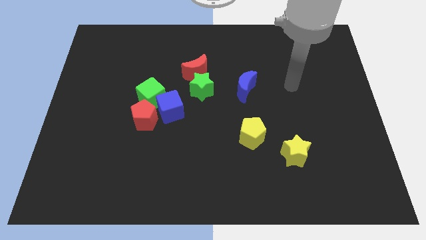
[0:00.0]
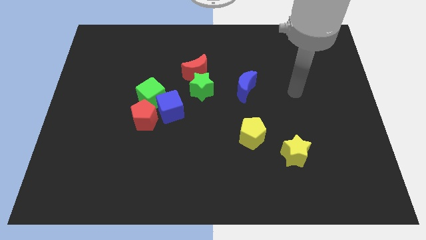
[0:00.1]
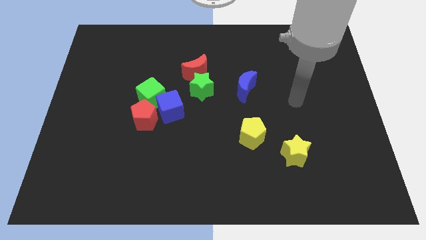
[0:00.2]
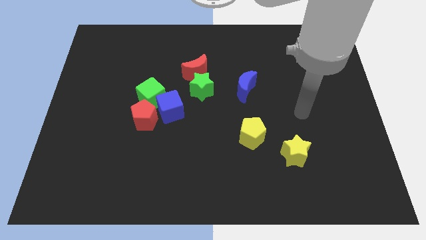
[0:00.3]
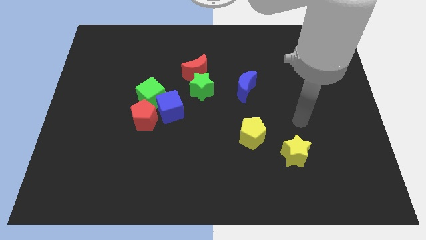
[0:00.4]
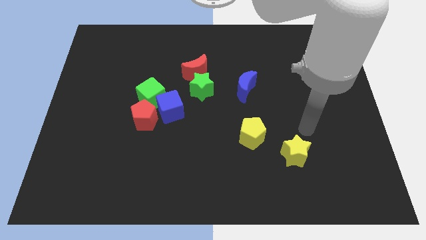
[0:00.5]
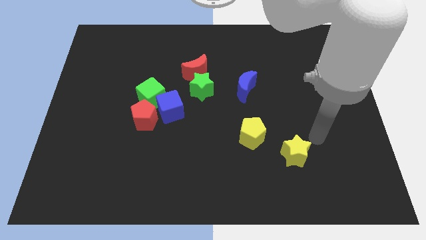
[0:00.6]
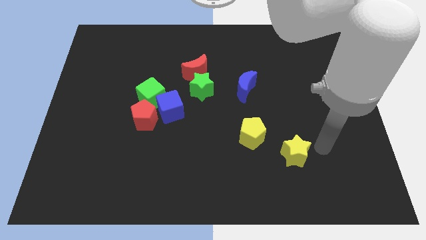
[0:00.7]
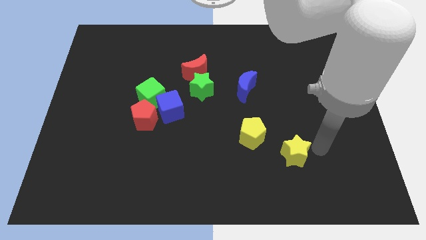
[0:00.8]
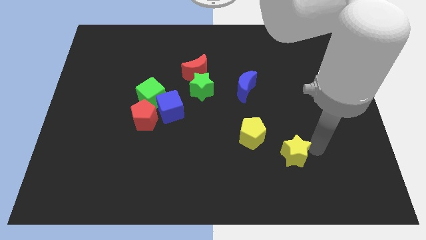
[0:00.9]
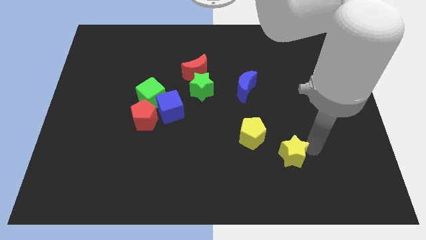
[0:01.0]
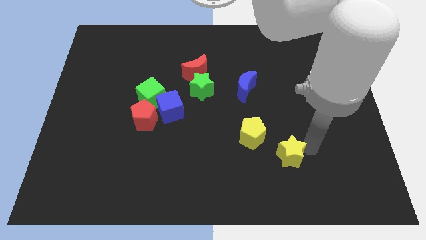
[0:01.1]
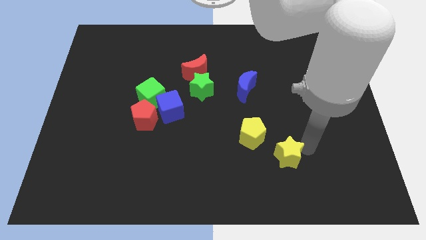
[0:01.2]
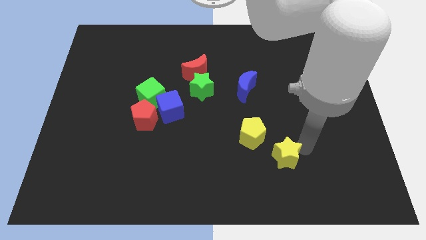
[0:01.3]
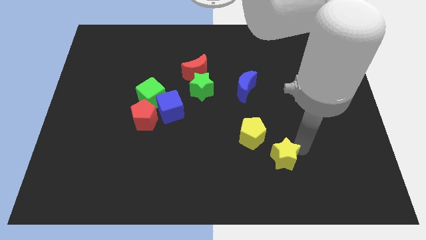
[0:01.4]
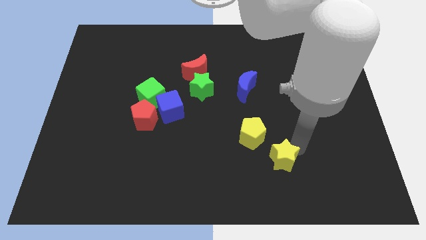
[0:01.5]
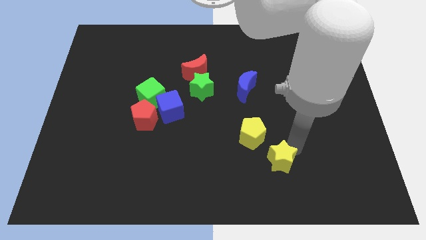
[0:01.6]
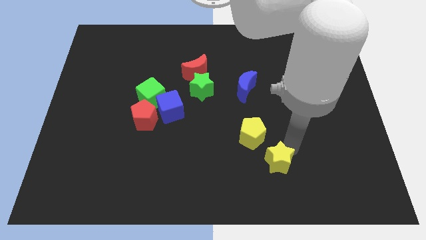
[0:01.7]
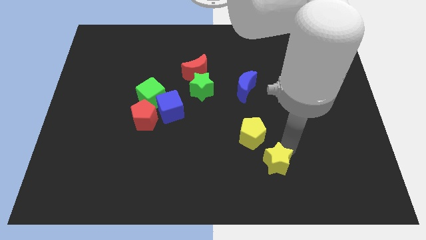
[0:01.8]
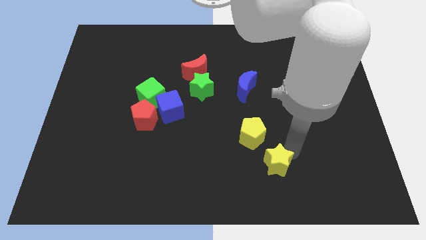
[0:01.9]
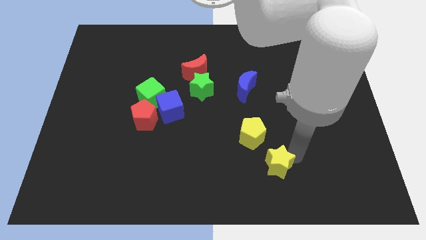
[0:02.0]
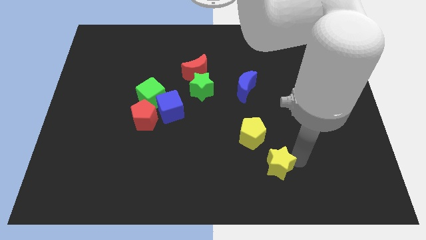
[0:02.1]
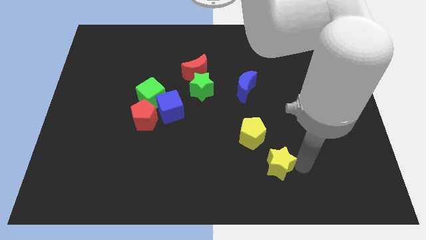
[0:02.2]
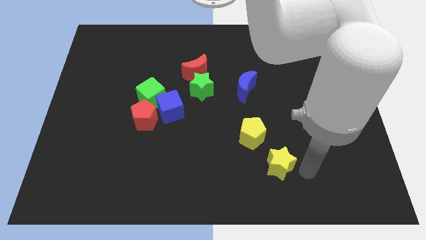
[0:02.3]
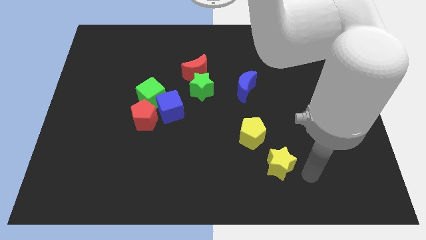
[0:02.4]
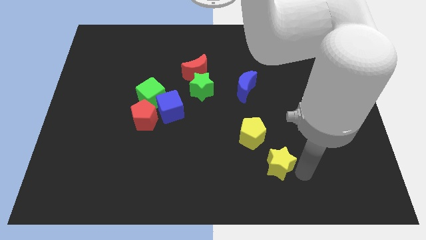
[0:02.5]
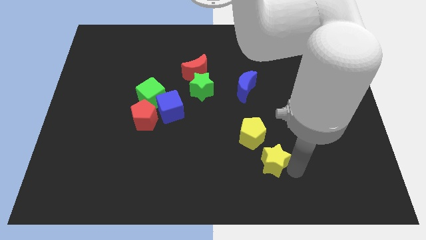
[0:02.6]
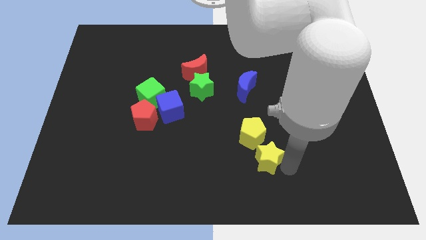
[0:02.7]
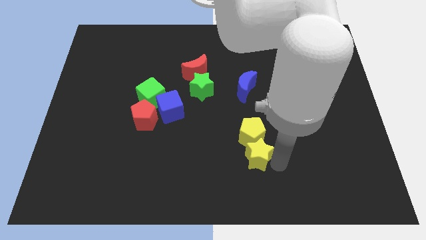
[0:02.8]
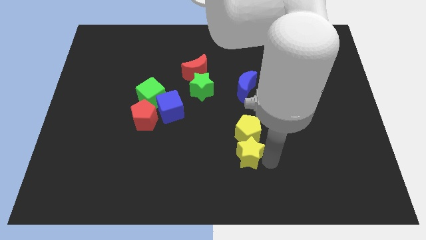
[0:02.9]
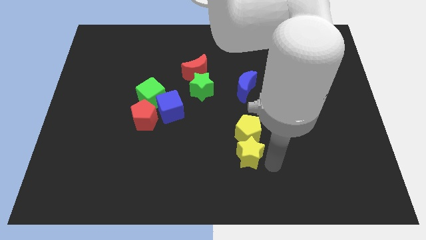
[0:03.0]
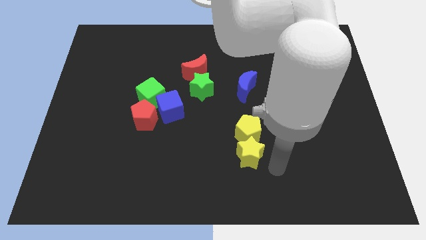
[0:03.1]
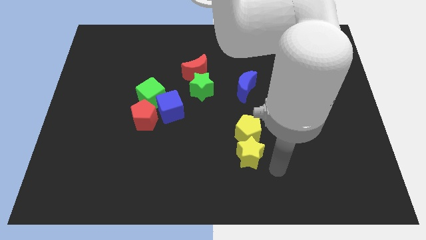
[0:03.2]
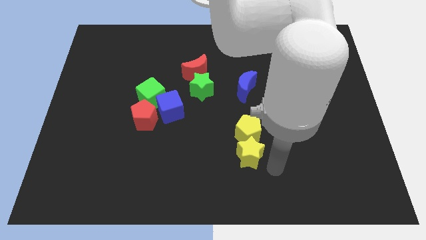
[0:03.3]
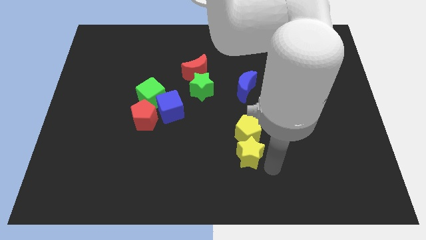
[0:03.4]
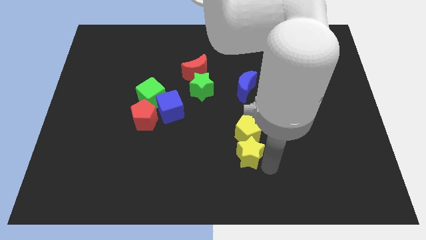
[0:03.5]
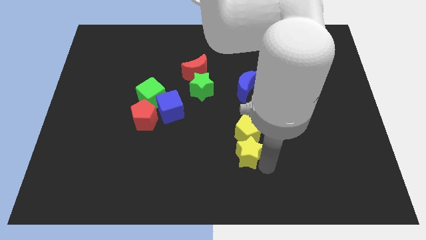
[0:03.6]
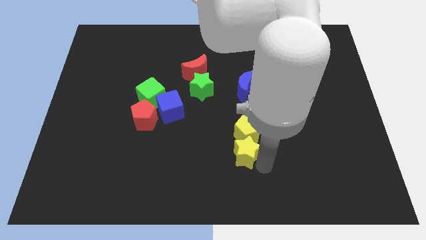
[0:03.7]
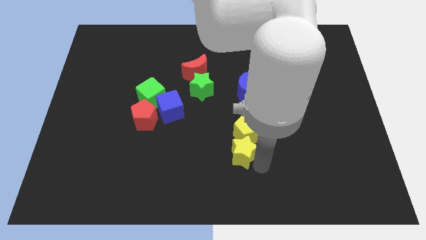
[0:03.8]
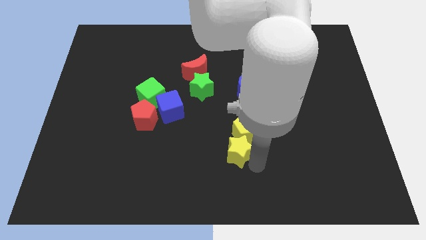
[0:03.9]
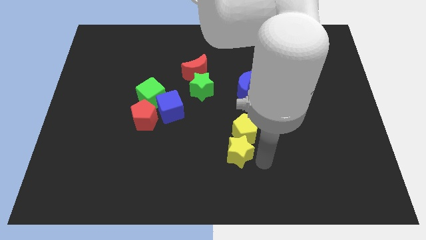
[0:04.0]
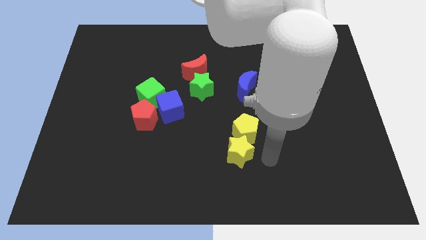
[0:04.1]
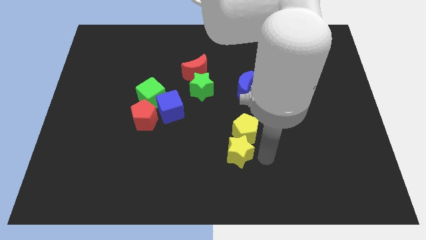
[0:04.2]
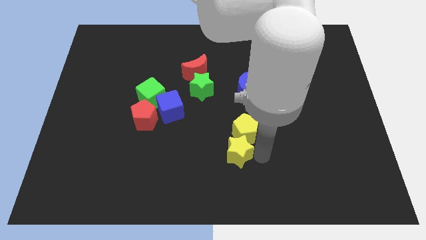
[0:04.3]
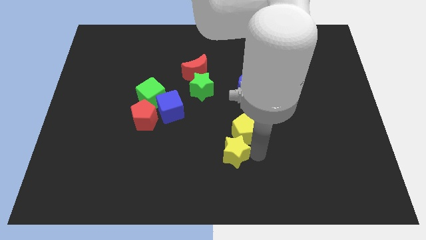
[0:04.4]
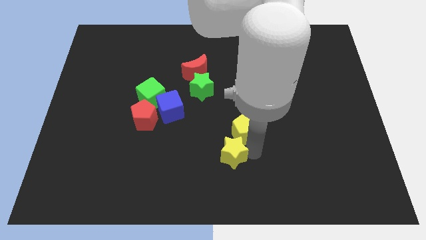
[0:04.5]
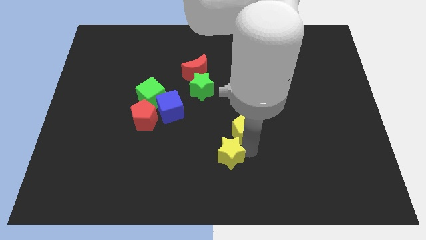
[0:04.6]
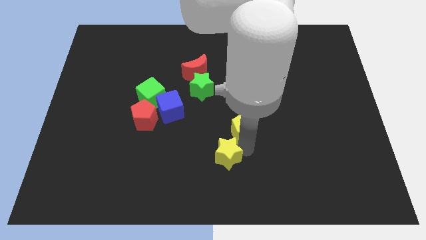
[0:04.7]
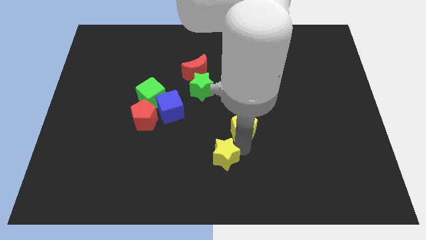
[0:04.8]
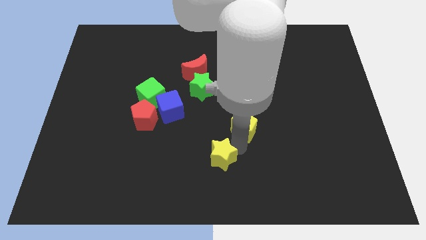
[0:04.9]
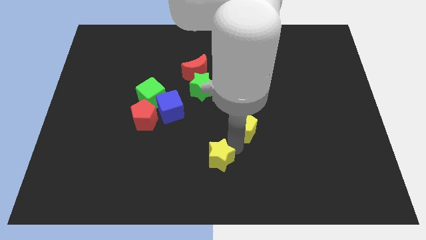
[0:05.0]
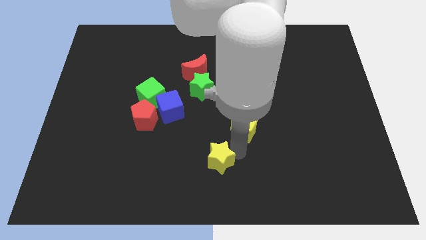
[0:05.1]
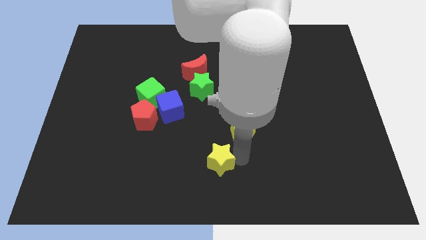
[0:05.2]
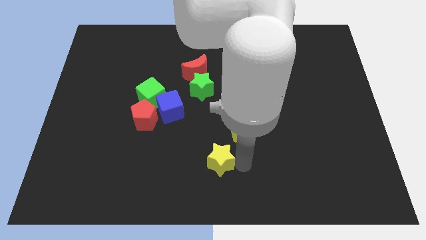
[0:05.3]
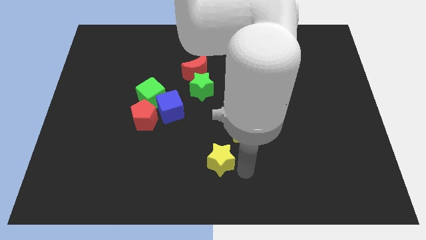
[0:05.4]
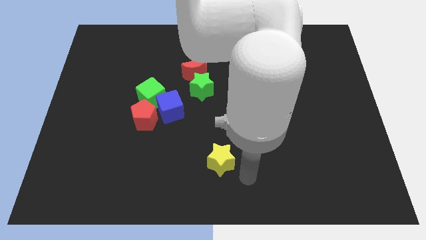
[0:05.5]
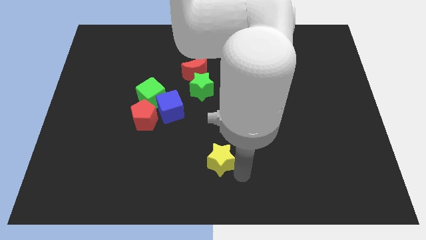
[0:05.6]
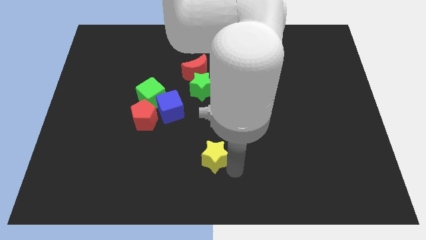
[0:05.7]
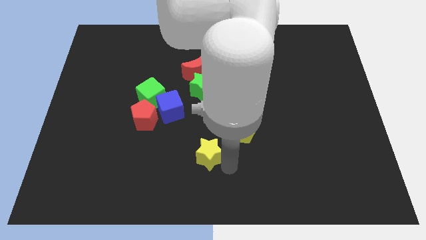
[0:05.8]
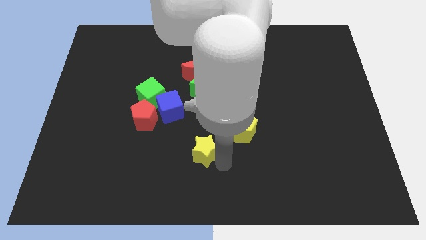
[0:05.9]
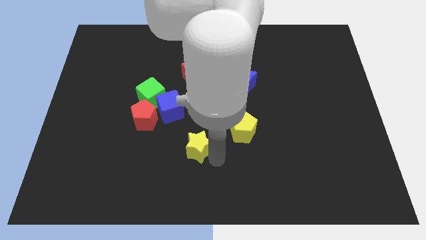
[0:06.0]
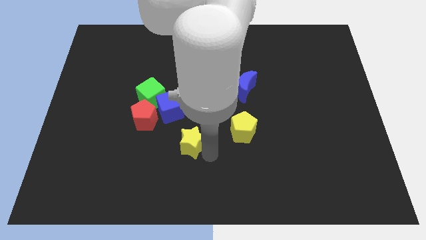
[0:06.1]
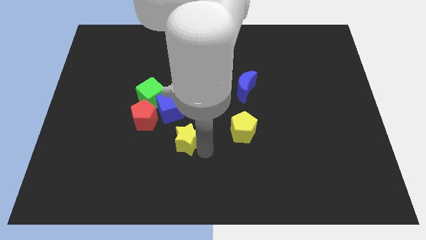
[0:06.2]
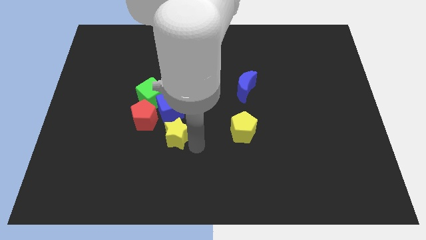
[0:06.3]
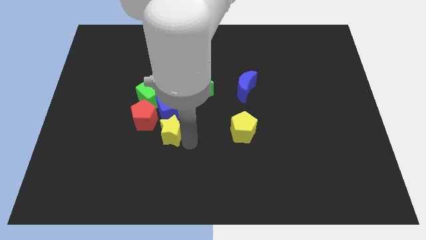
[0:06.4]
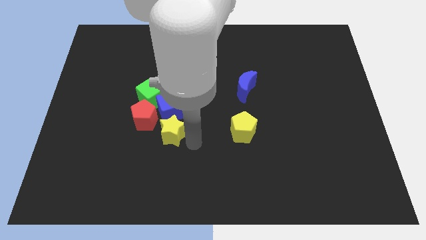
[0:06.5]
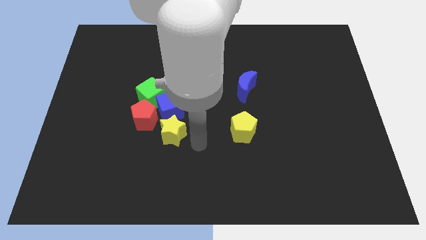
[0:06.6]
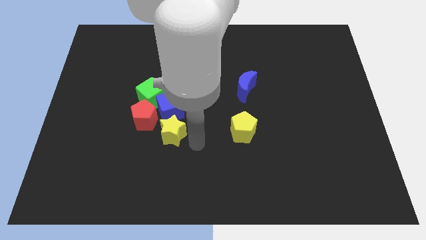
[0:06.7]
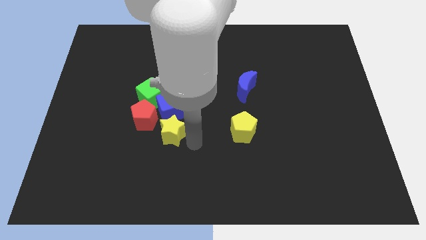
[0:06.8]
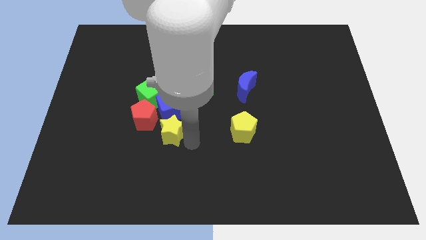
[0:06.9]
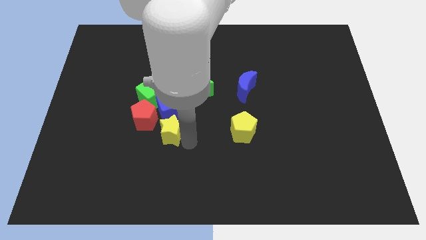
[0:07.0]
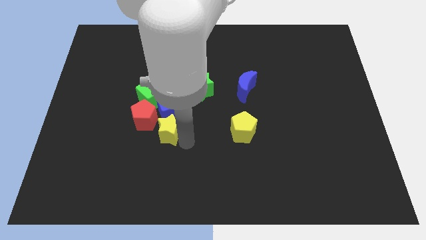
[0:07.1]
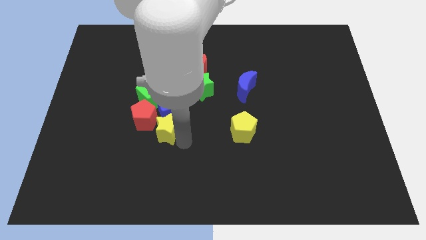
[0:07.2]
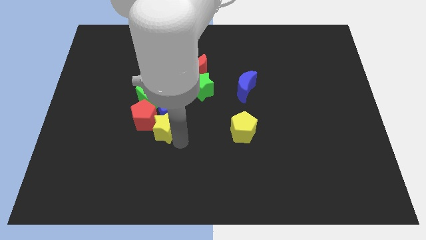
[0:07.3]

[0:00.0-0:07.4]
slide the yellow star next to the red pentagon
